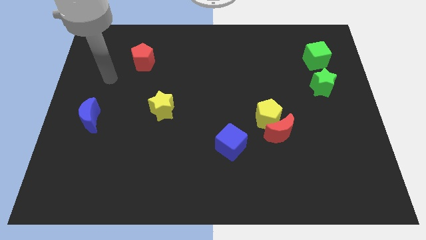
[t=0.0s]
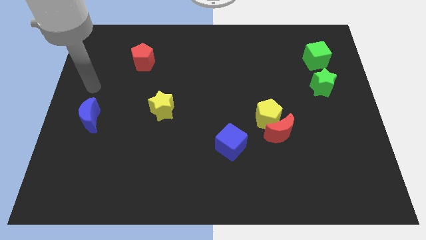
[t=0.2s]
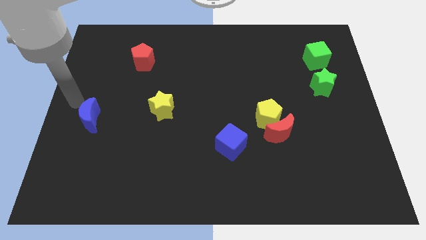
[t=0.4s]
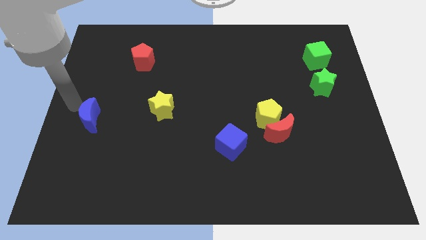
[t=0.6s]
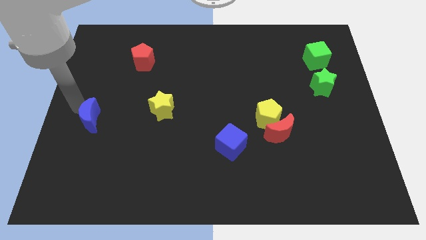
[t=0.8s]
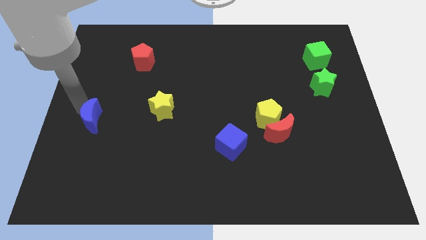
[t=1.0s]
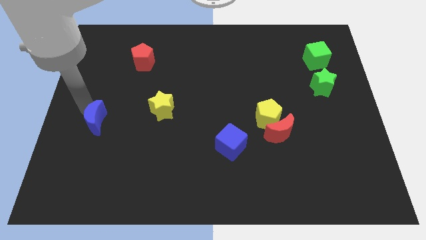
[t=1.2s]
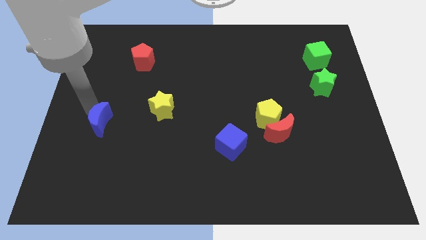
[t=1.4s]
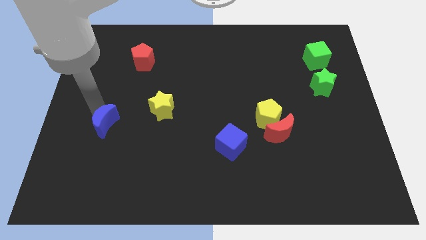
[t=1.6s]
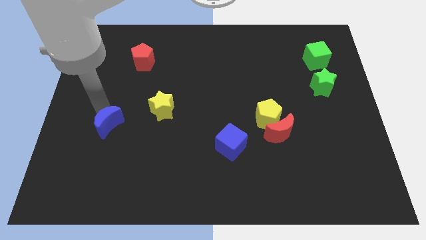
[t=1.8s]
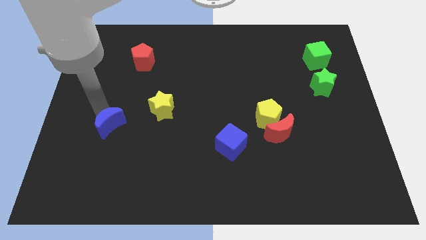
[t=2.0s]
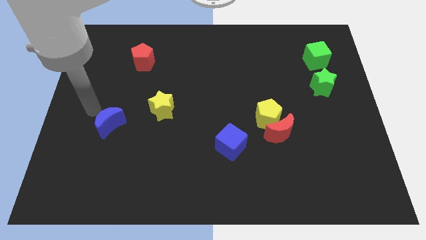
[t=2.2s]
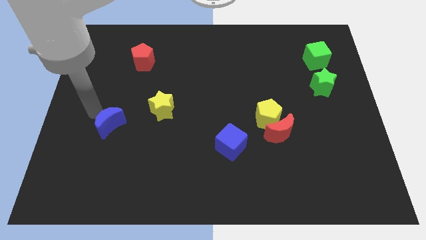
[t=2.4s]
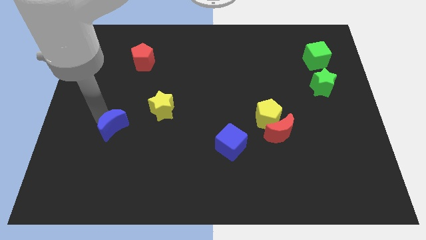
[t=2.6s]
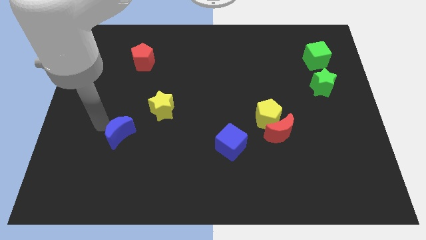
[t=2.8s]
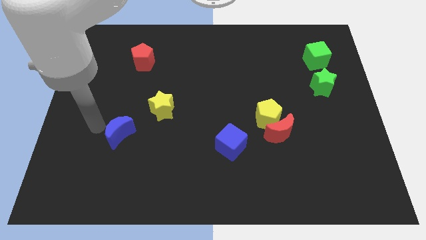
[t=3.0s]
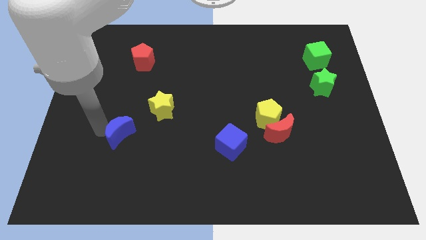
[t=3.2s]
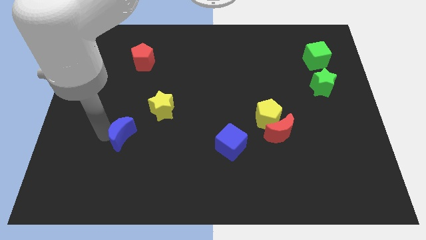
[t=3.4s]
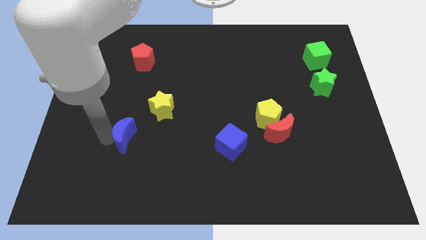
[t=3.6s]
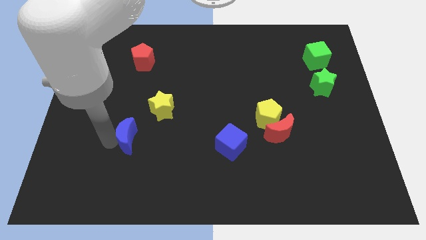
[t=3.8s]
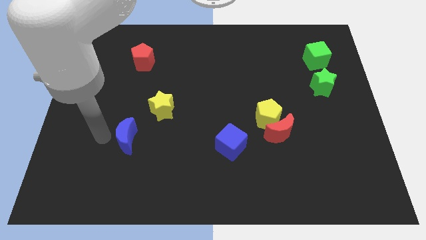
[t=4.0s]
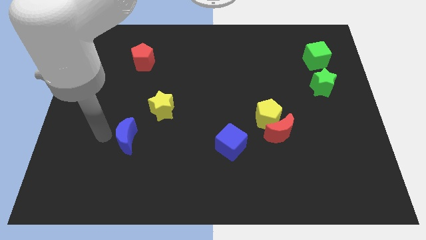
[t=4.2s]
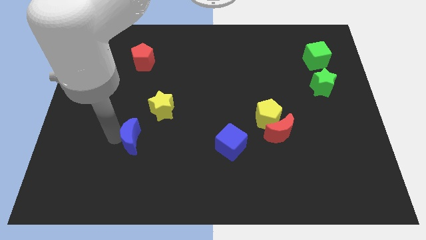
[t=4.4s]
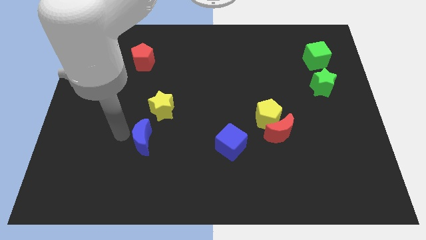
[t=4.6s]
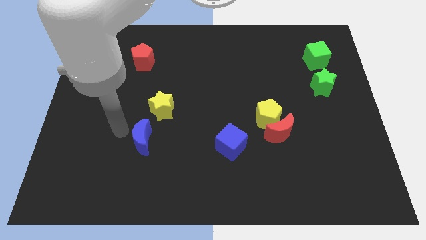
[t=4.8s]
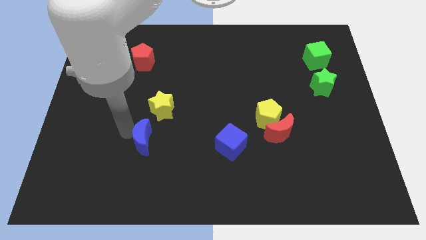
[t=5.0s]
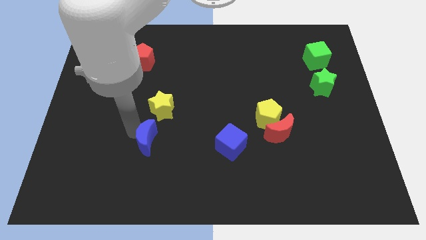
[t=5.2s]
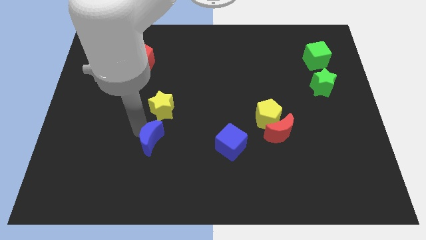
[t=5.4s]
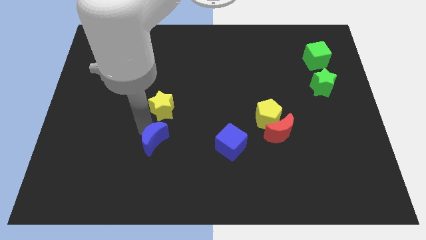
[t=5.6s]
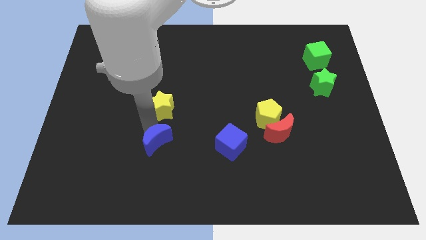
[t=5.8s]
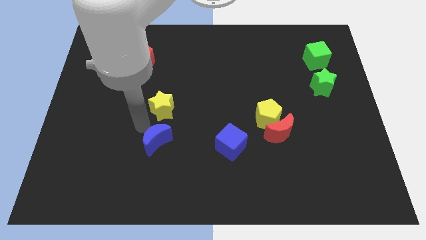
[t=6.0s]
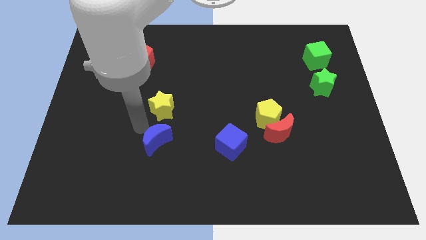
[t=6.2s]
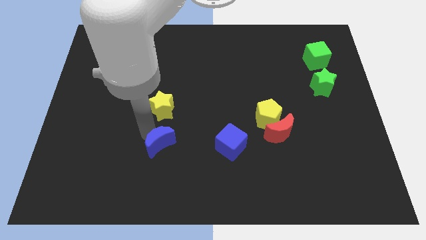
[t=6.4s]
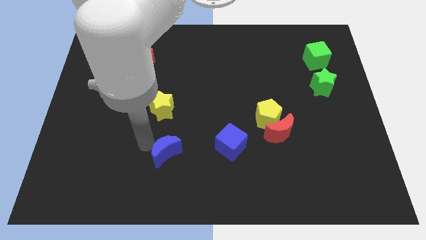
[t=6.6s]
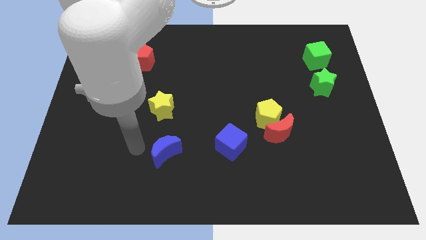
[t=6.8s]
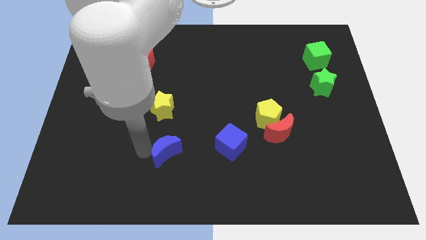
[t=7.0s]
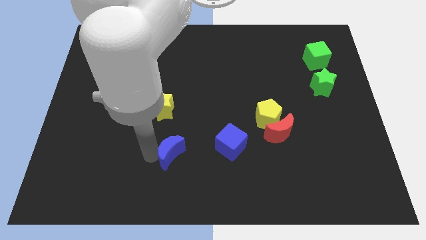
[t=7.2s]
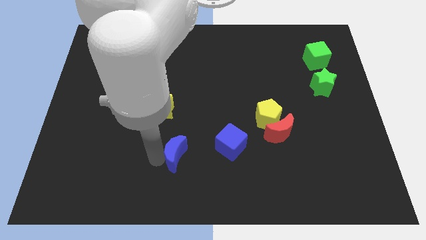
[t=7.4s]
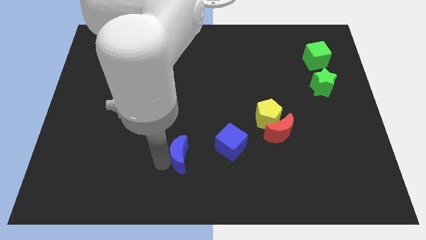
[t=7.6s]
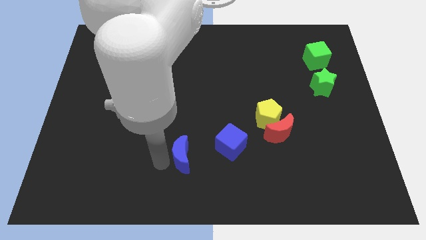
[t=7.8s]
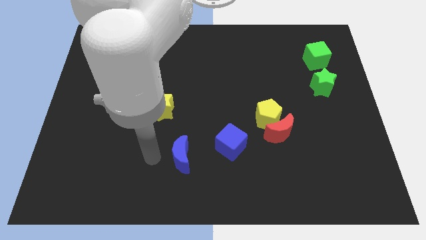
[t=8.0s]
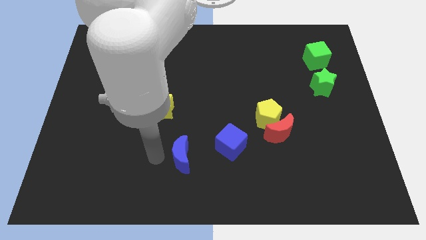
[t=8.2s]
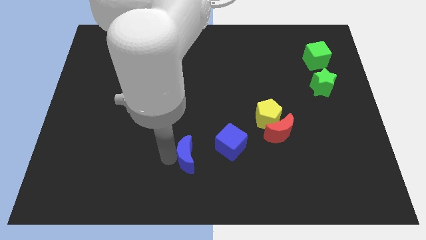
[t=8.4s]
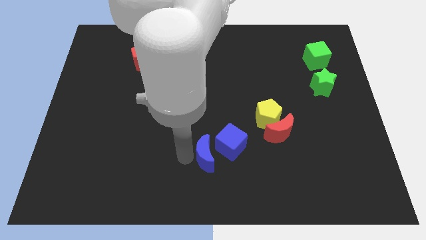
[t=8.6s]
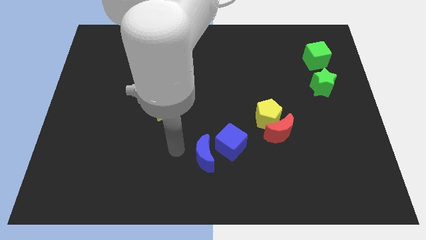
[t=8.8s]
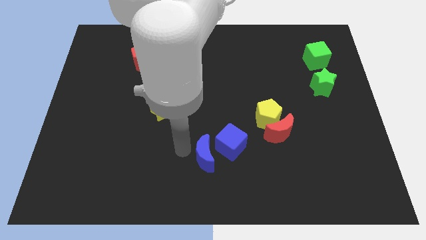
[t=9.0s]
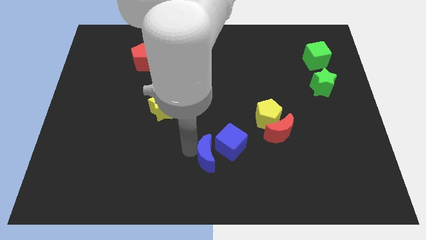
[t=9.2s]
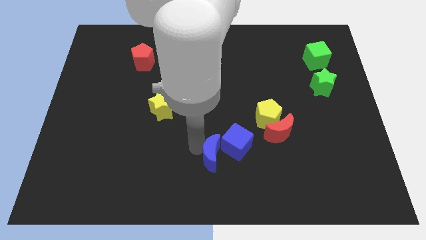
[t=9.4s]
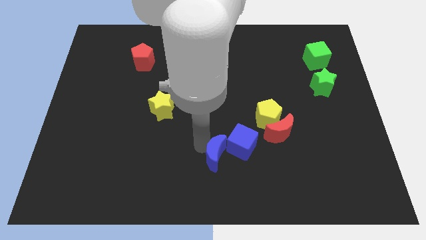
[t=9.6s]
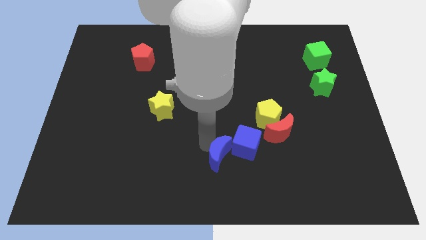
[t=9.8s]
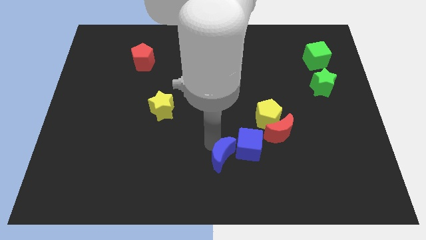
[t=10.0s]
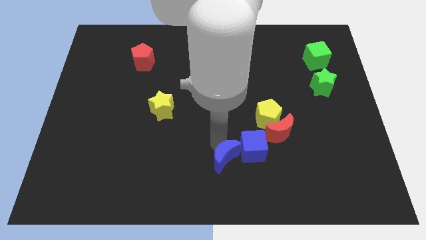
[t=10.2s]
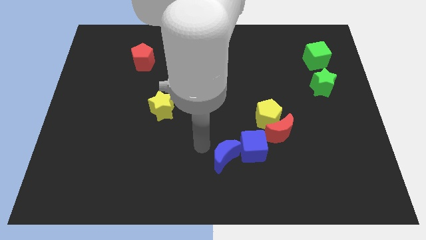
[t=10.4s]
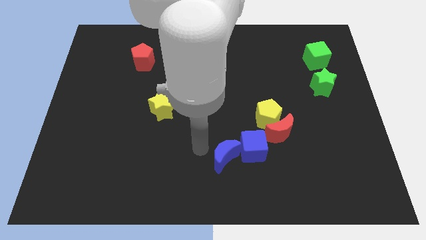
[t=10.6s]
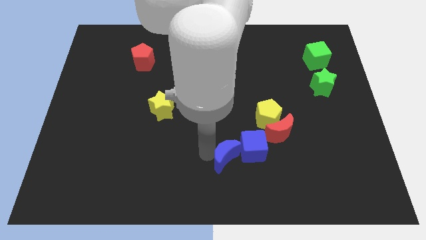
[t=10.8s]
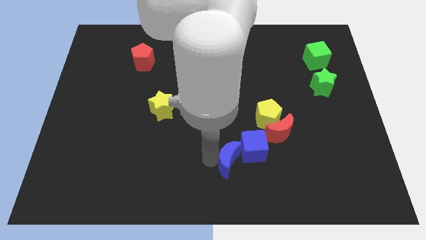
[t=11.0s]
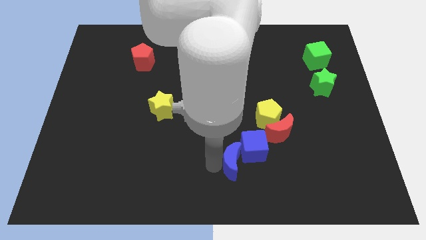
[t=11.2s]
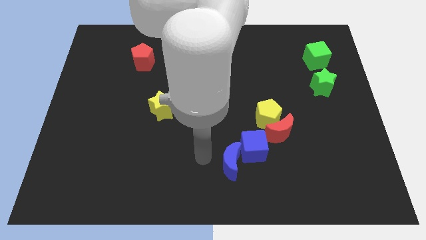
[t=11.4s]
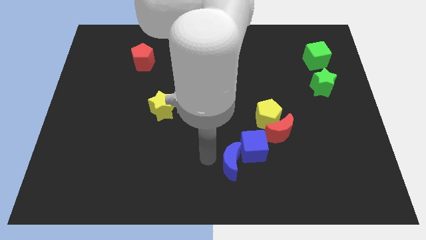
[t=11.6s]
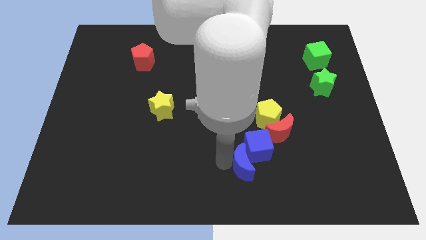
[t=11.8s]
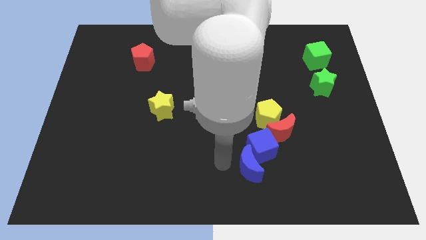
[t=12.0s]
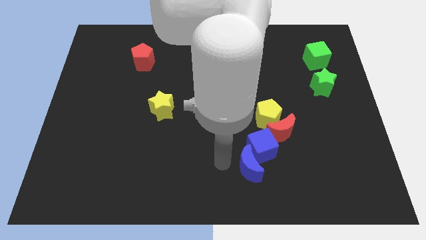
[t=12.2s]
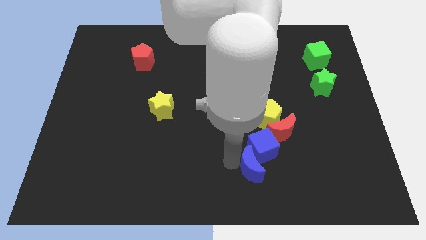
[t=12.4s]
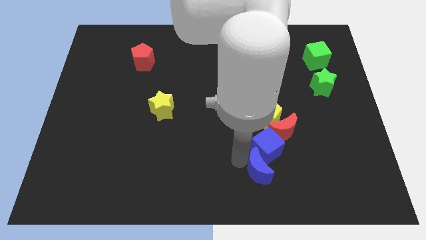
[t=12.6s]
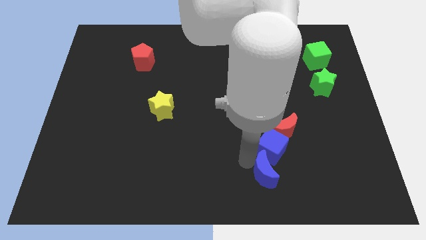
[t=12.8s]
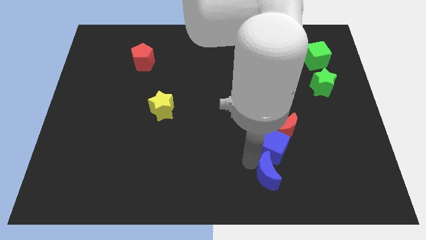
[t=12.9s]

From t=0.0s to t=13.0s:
push the blue moon below the red moon

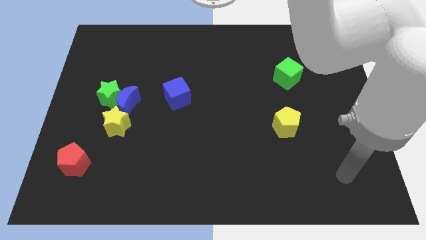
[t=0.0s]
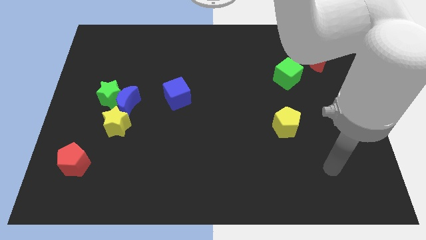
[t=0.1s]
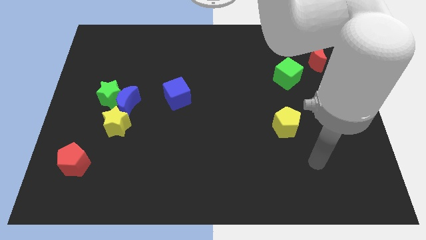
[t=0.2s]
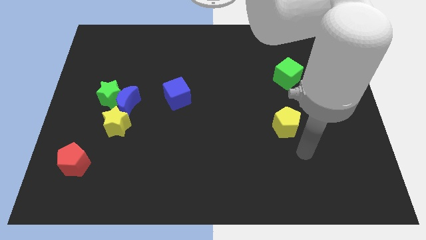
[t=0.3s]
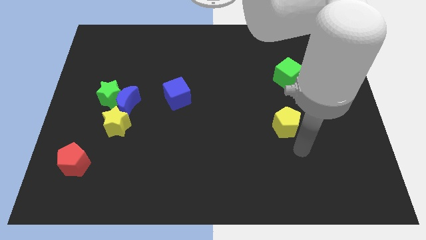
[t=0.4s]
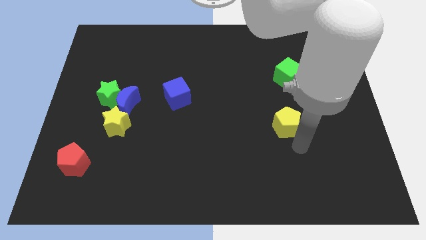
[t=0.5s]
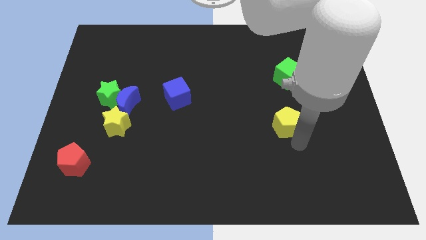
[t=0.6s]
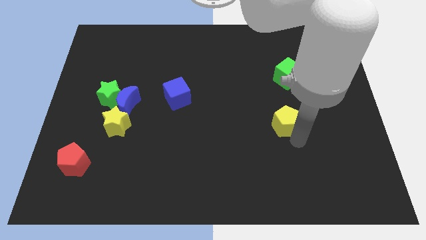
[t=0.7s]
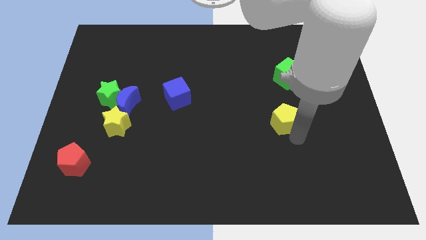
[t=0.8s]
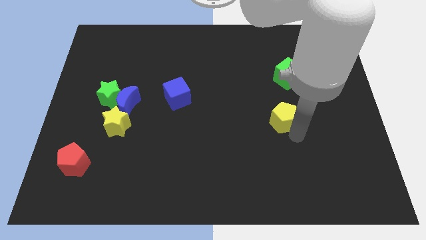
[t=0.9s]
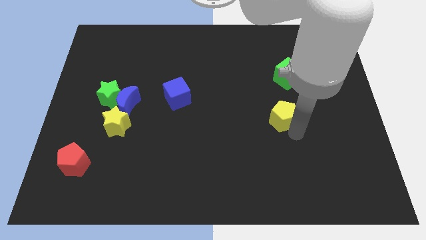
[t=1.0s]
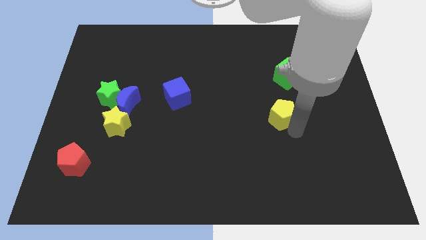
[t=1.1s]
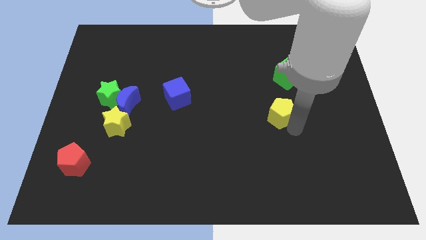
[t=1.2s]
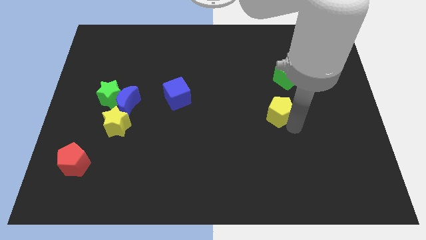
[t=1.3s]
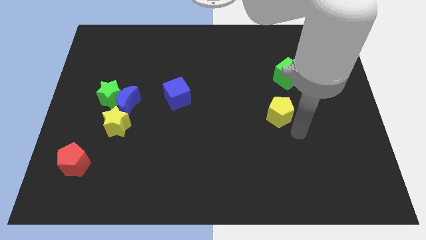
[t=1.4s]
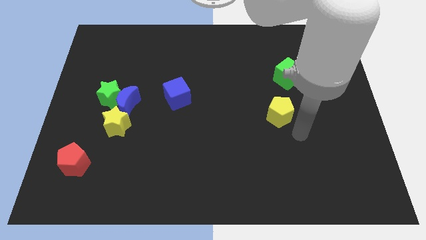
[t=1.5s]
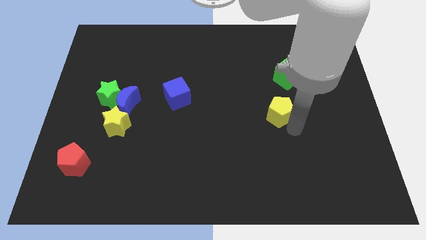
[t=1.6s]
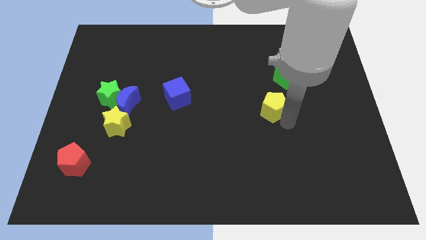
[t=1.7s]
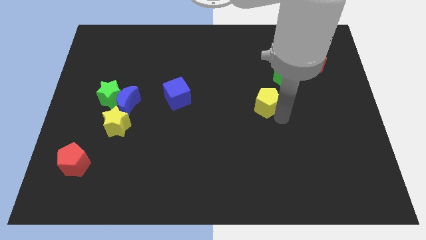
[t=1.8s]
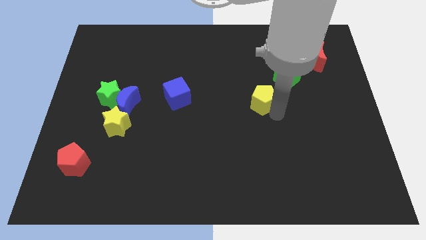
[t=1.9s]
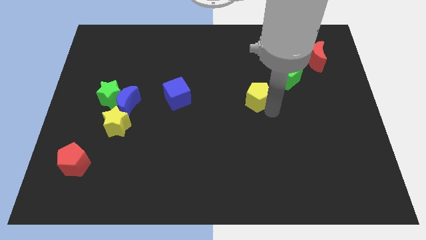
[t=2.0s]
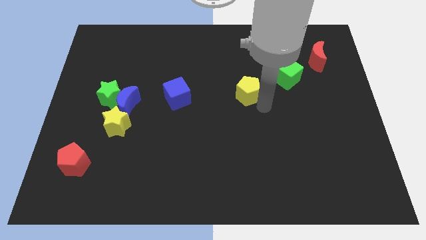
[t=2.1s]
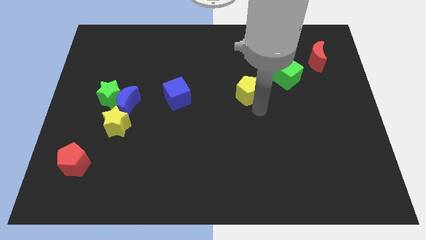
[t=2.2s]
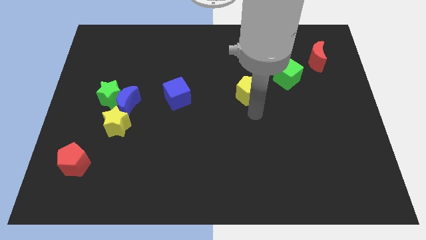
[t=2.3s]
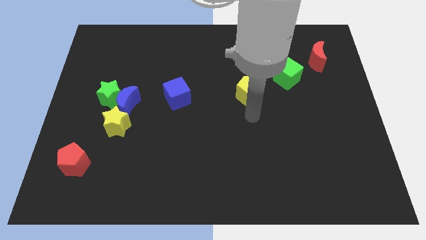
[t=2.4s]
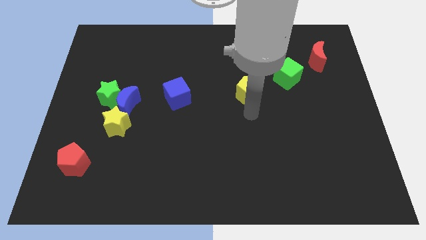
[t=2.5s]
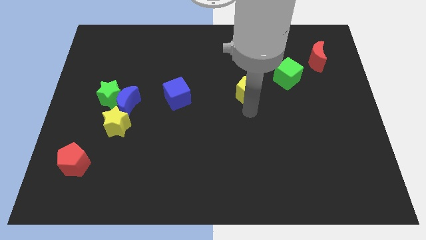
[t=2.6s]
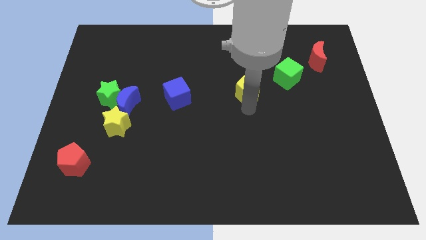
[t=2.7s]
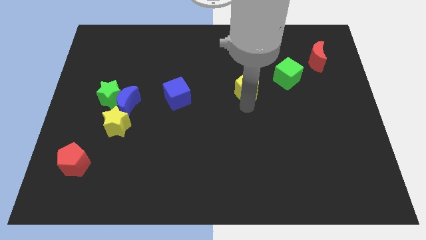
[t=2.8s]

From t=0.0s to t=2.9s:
push the yellow pentagon to the left of the green cube
